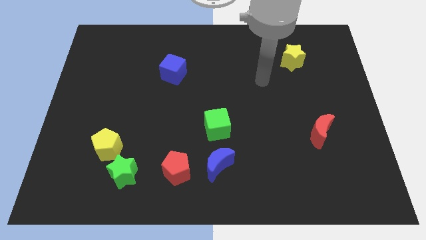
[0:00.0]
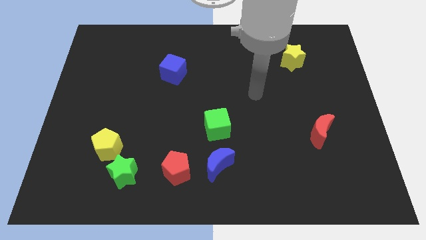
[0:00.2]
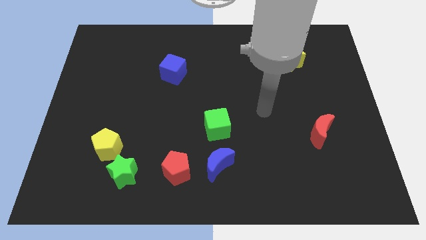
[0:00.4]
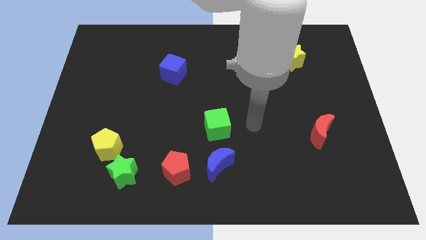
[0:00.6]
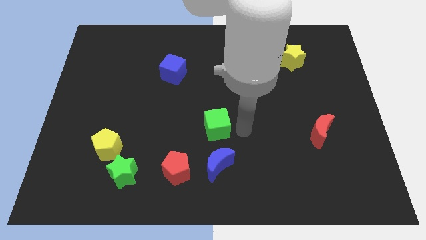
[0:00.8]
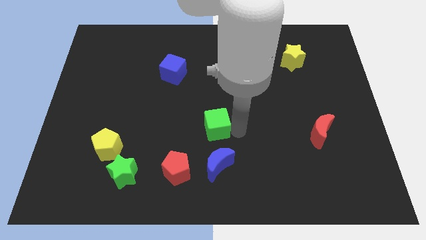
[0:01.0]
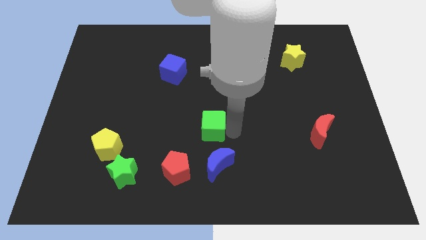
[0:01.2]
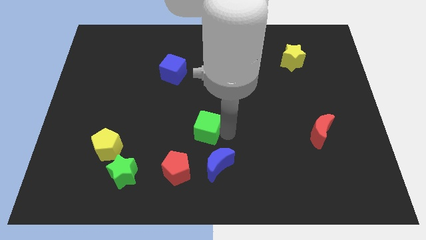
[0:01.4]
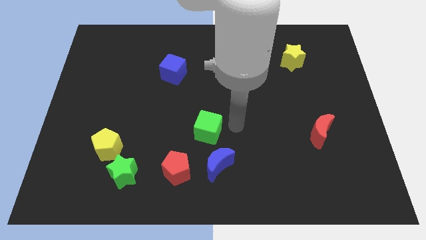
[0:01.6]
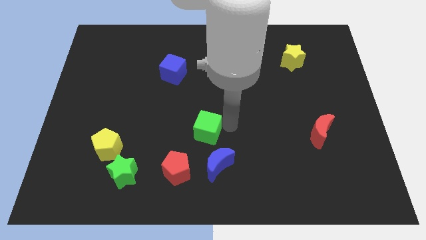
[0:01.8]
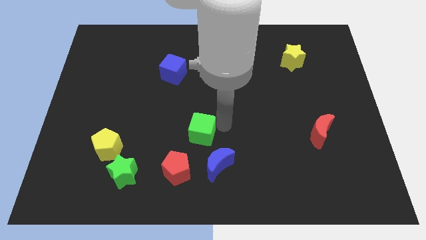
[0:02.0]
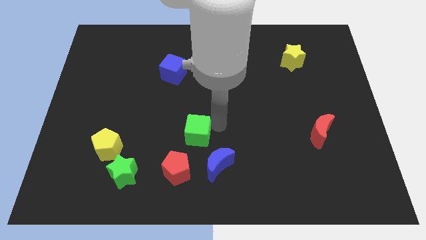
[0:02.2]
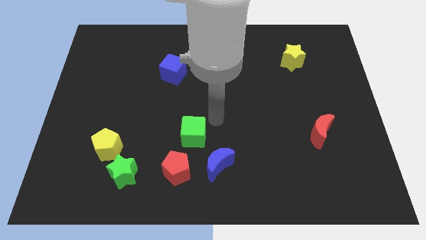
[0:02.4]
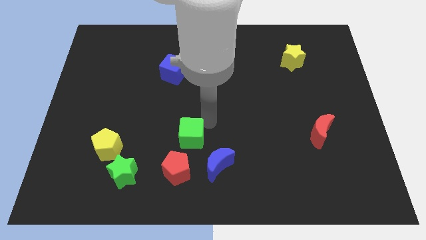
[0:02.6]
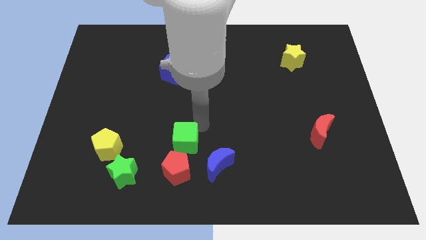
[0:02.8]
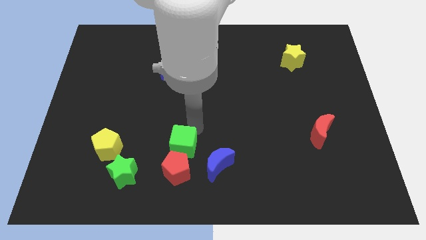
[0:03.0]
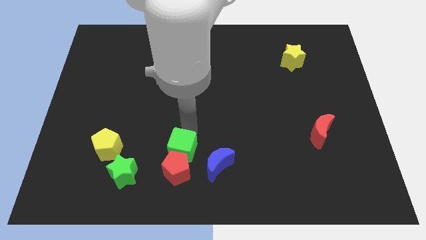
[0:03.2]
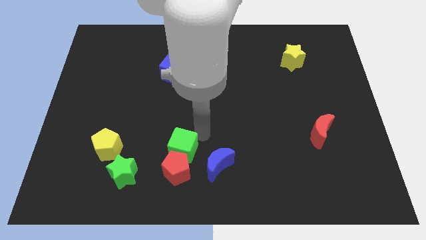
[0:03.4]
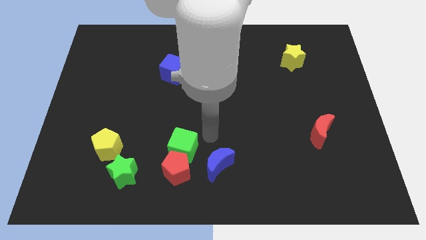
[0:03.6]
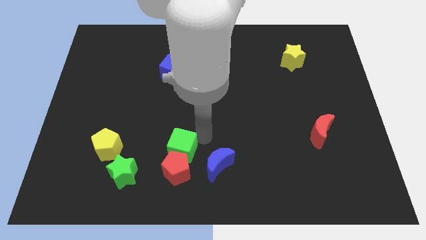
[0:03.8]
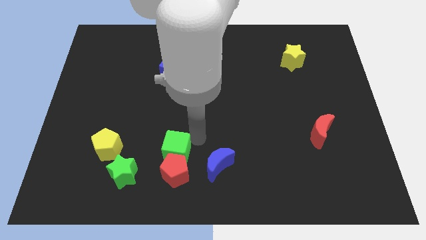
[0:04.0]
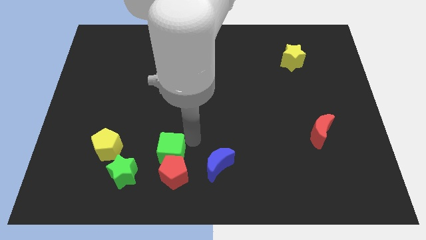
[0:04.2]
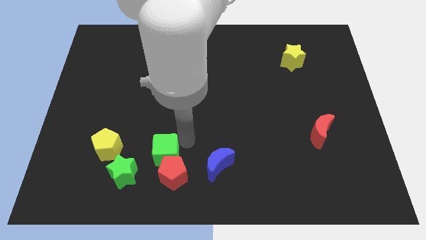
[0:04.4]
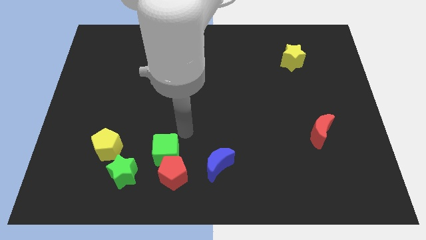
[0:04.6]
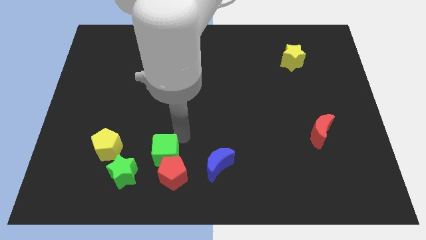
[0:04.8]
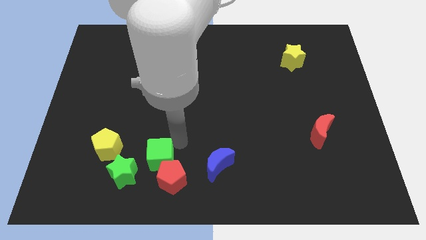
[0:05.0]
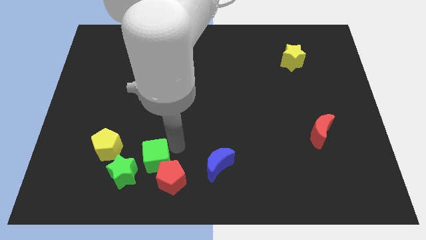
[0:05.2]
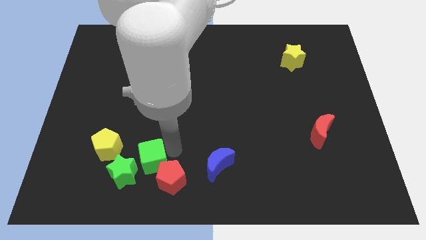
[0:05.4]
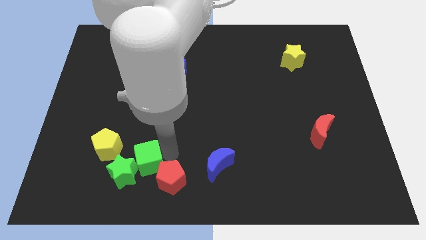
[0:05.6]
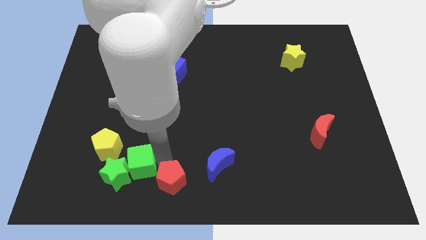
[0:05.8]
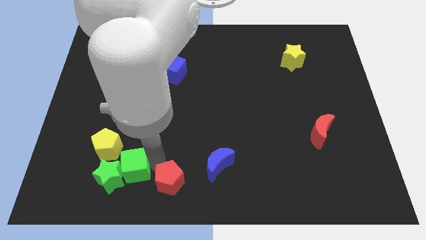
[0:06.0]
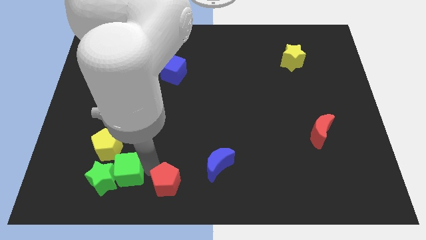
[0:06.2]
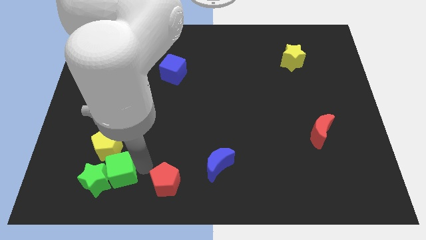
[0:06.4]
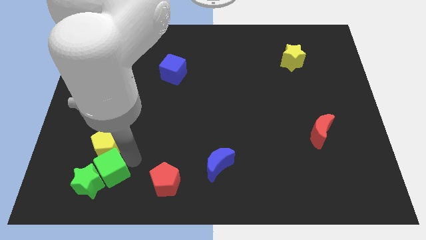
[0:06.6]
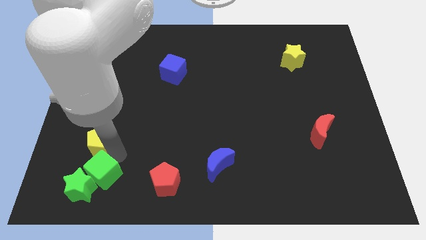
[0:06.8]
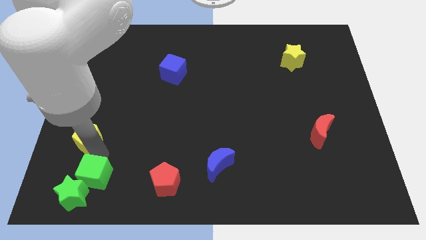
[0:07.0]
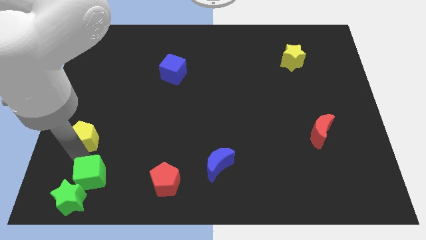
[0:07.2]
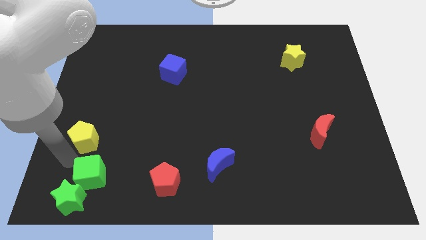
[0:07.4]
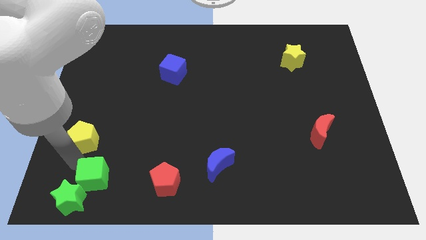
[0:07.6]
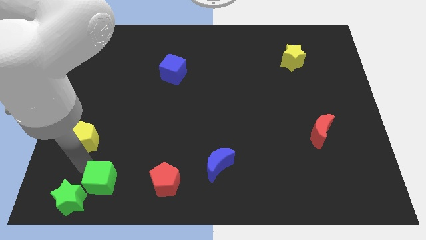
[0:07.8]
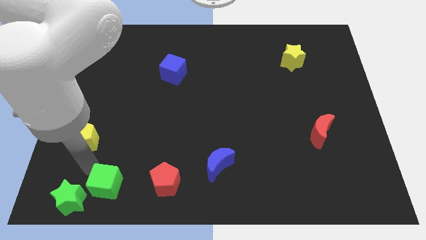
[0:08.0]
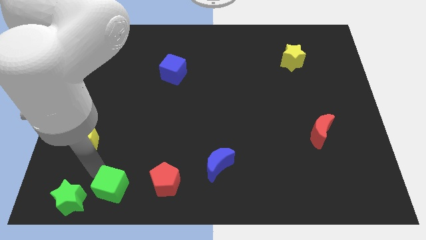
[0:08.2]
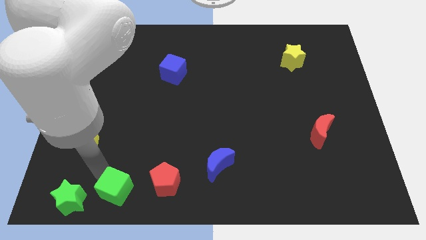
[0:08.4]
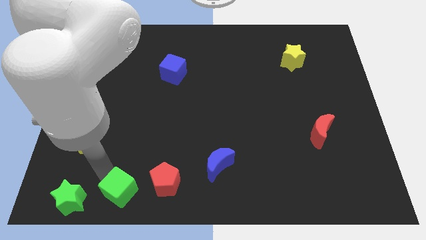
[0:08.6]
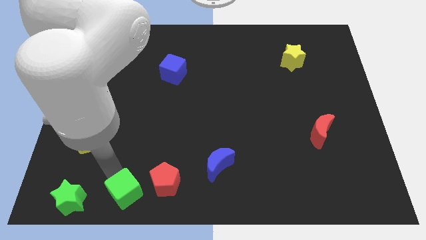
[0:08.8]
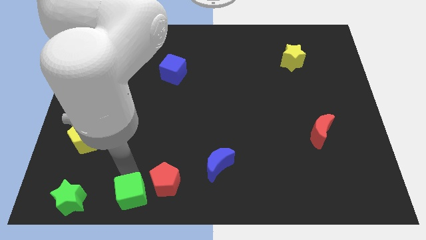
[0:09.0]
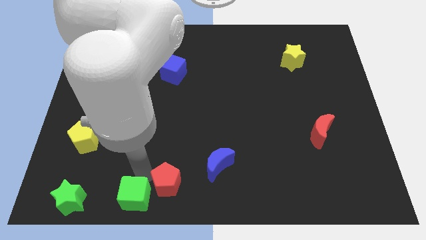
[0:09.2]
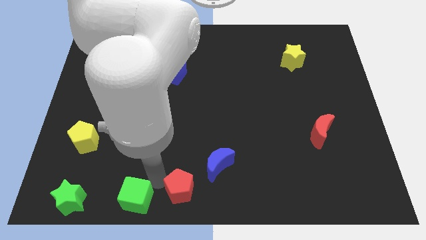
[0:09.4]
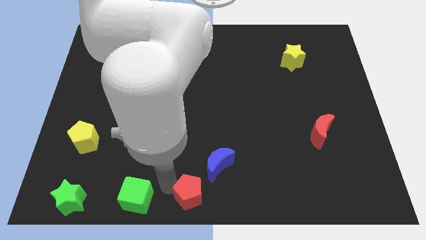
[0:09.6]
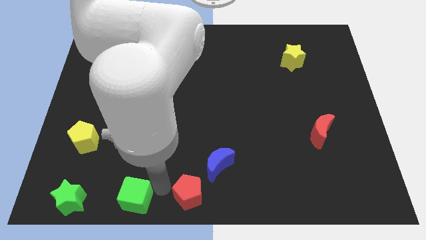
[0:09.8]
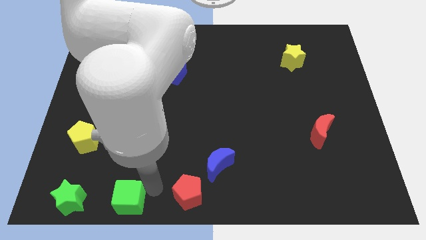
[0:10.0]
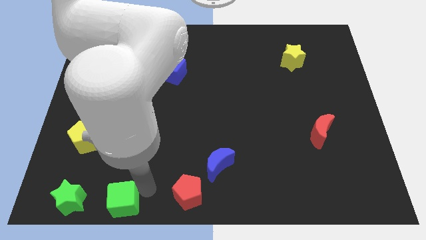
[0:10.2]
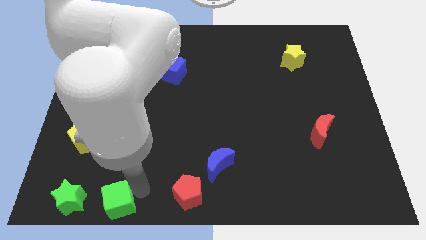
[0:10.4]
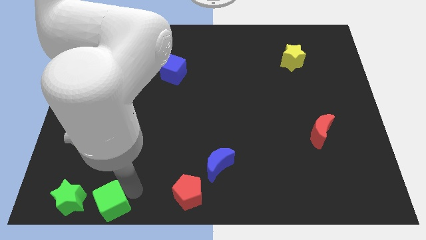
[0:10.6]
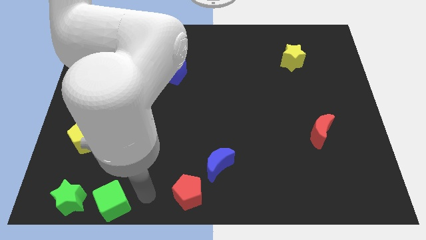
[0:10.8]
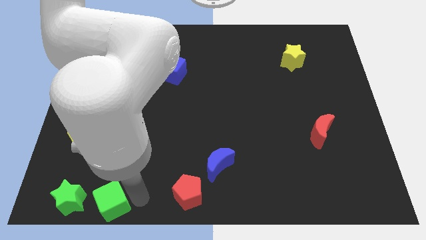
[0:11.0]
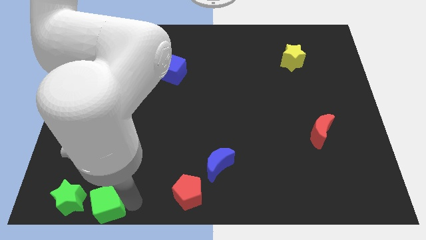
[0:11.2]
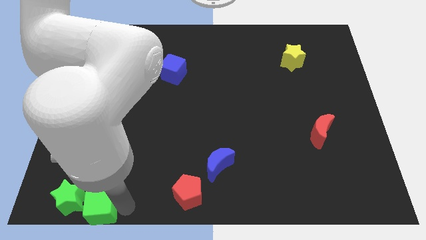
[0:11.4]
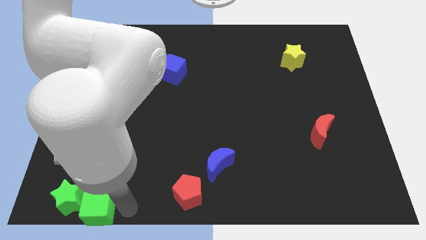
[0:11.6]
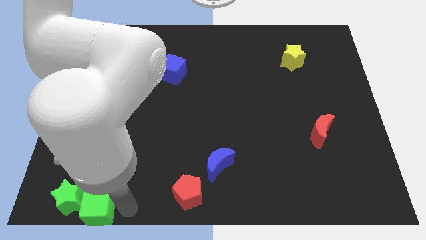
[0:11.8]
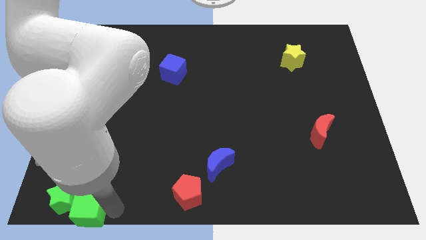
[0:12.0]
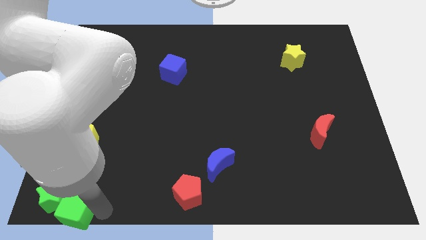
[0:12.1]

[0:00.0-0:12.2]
push the green cube to the bottom left corner
